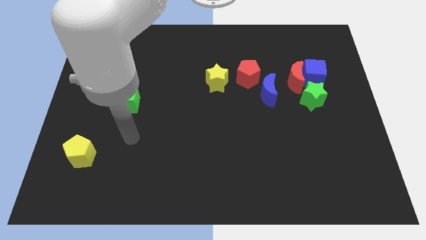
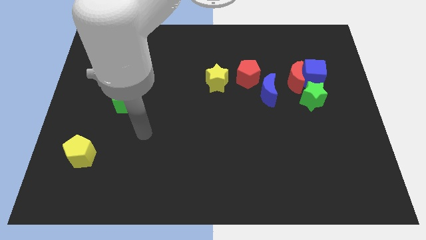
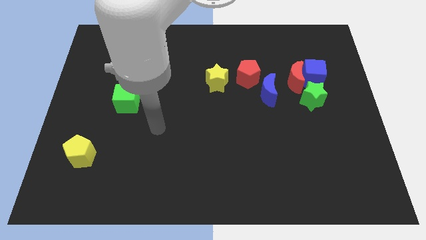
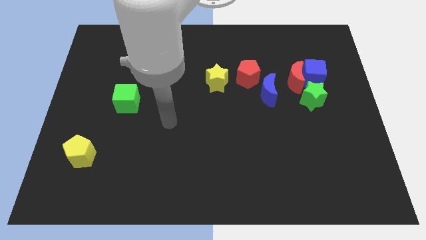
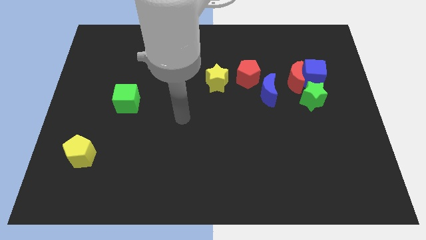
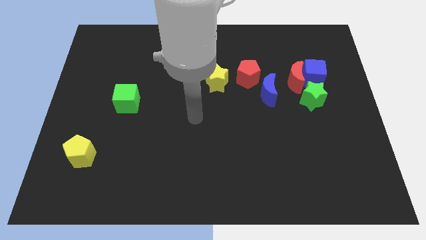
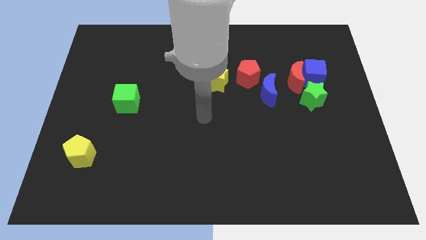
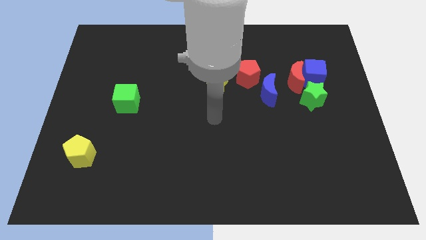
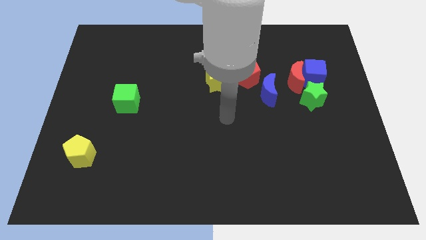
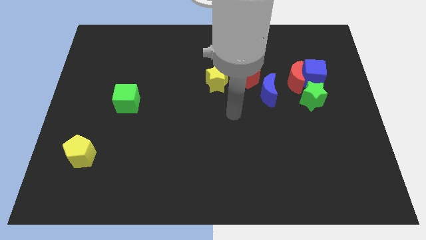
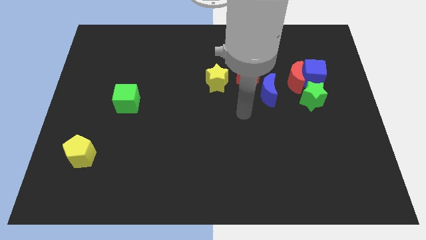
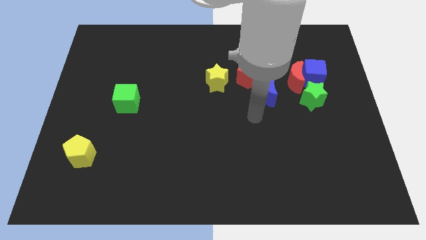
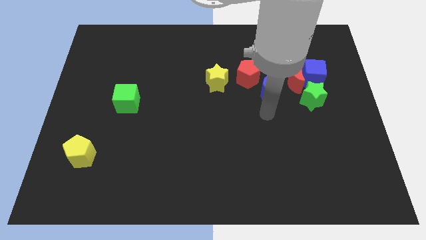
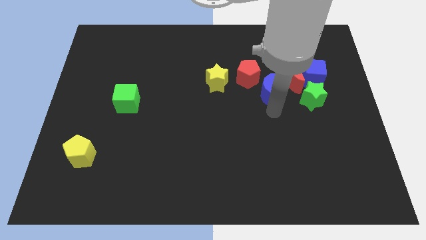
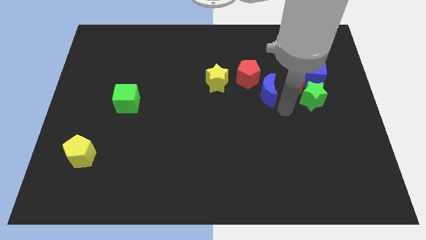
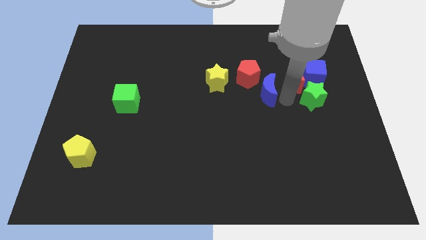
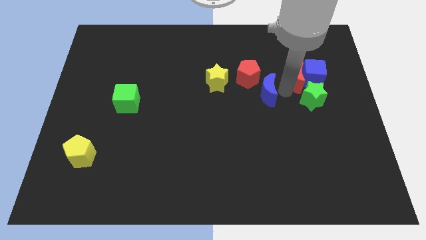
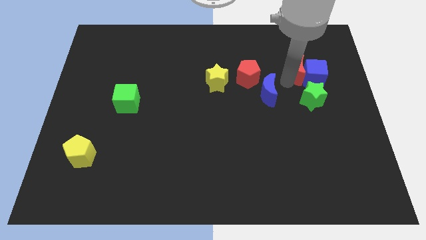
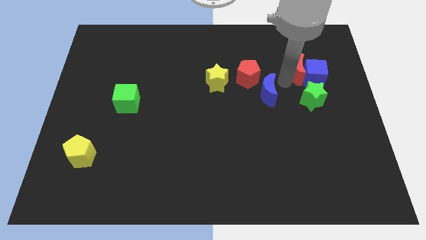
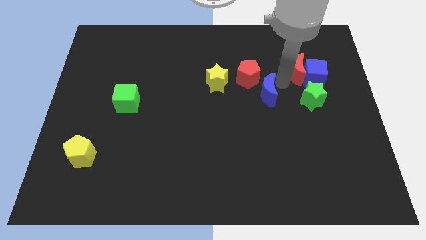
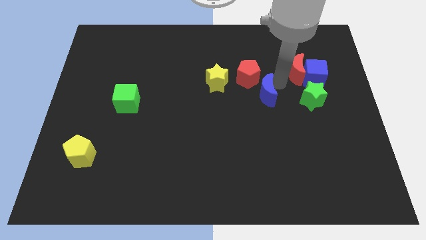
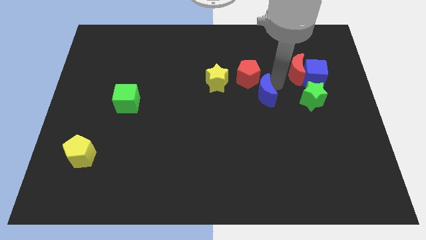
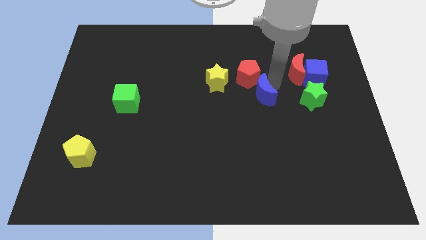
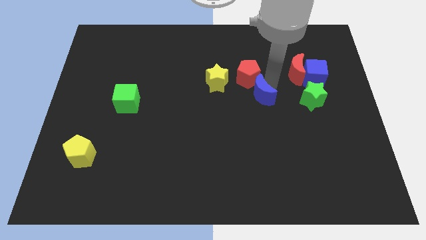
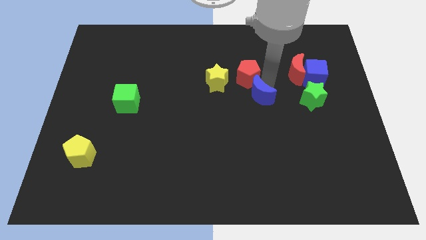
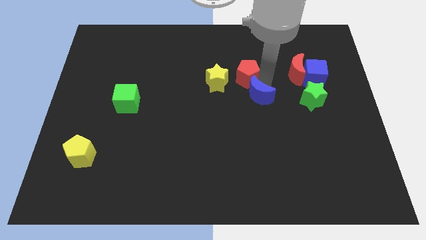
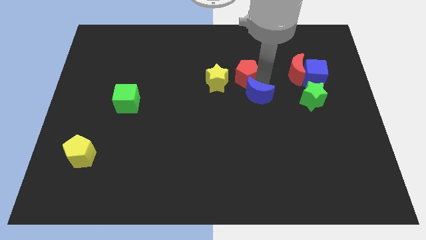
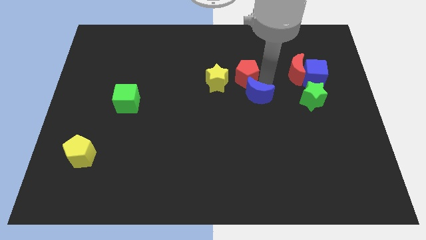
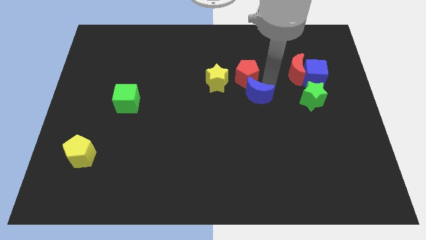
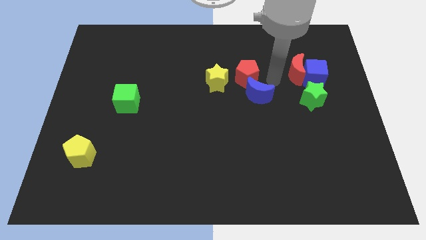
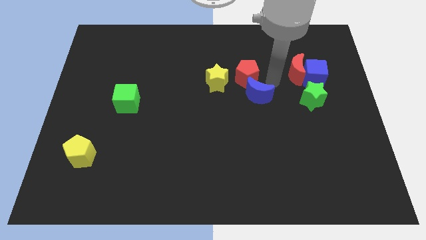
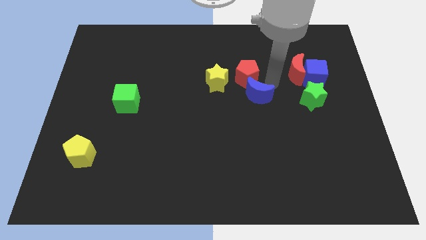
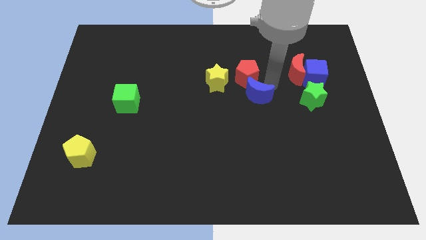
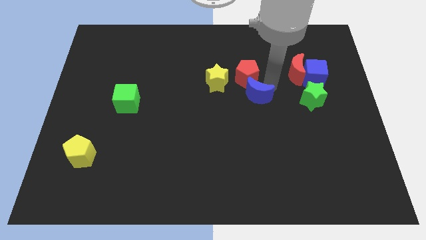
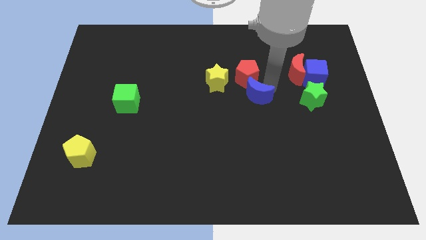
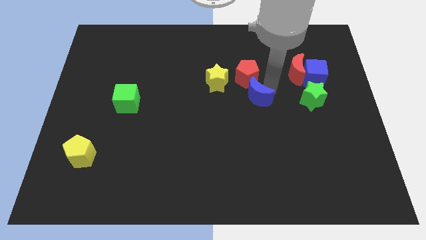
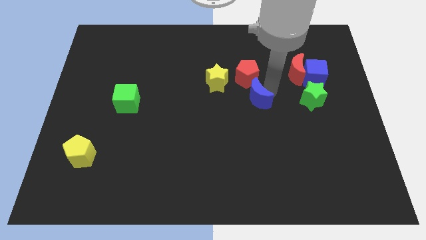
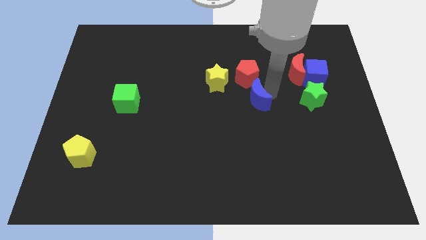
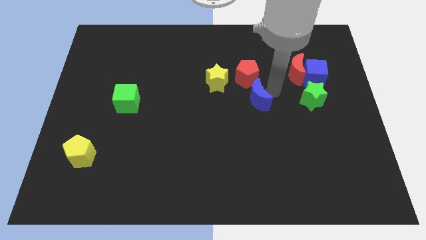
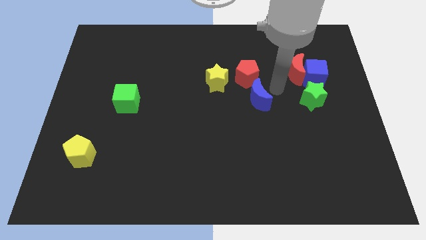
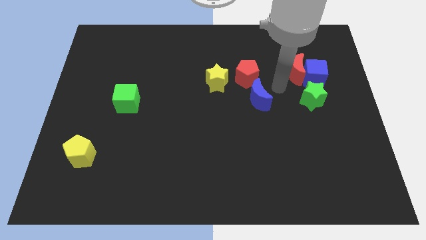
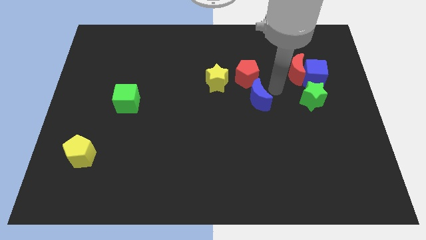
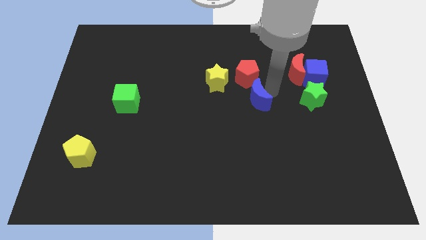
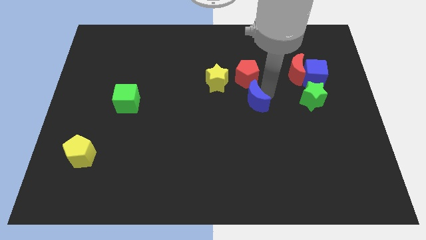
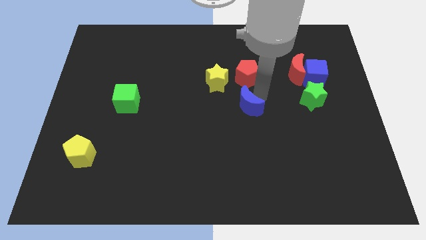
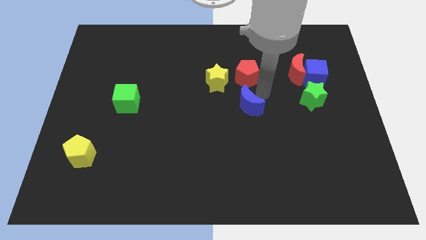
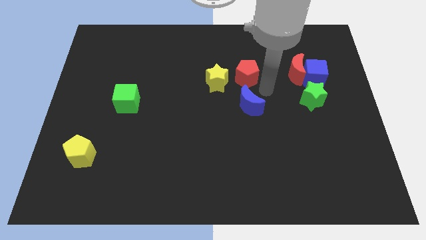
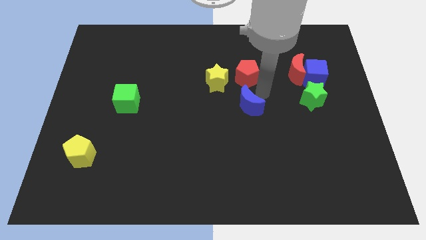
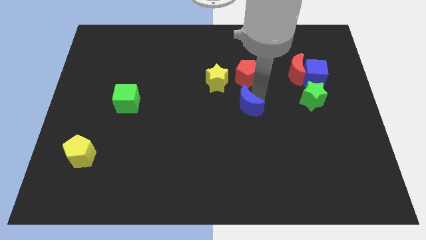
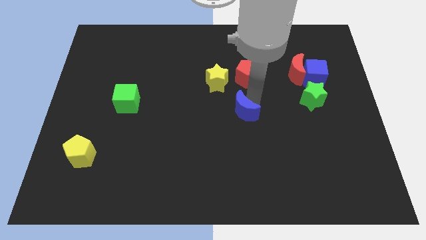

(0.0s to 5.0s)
slightly slide the blue moon downwards and then left

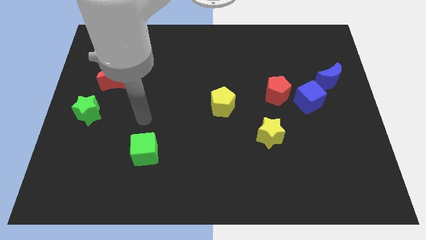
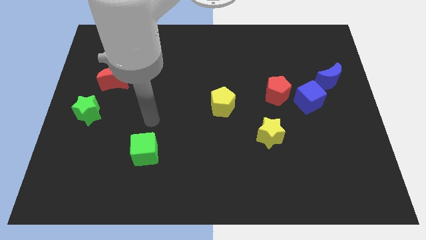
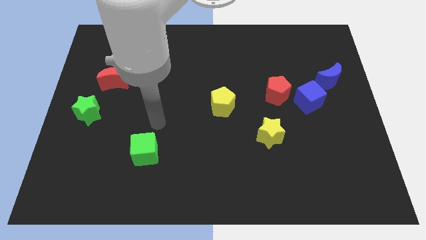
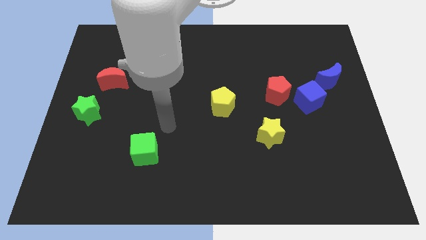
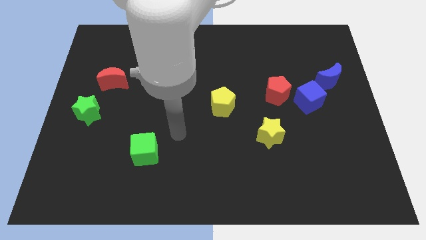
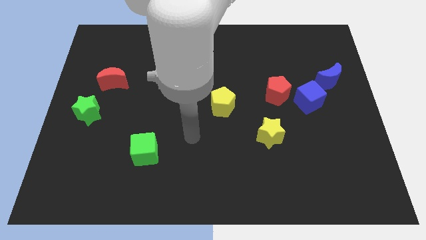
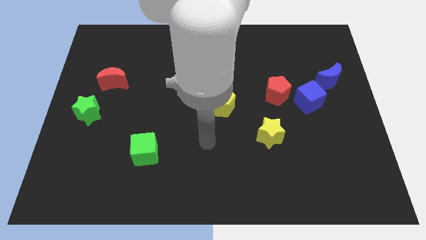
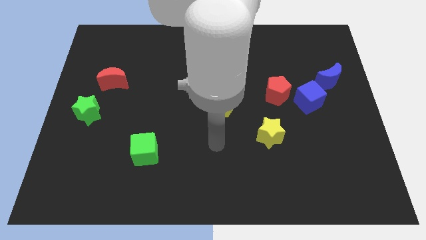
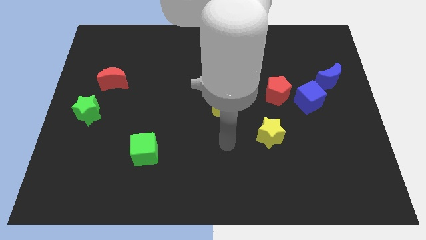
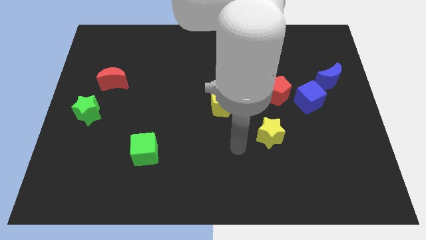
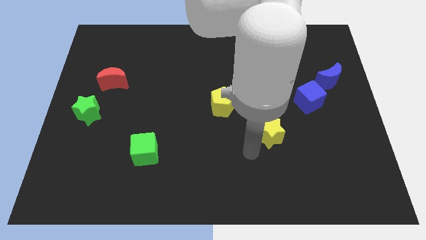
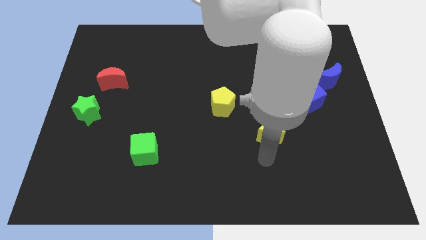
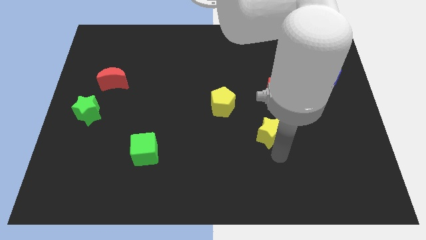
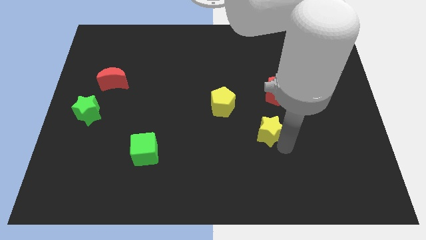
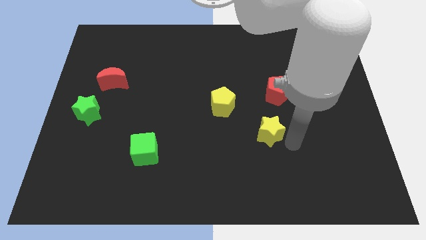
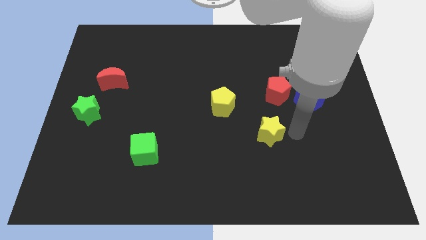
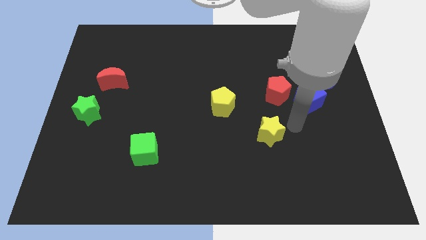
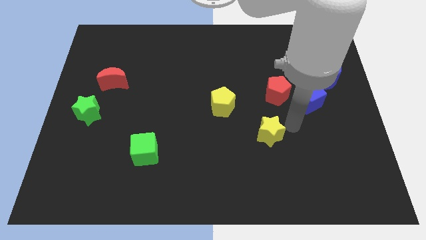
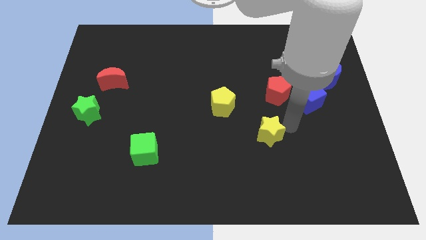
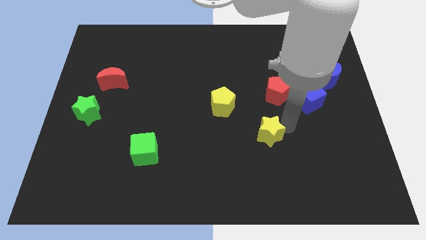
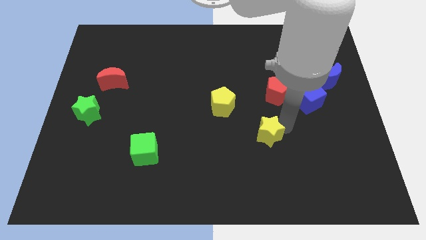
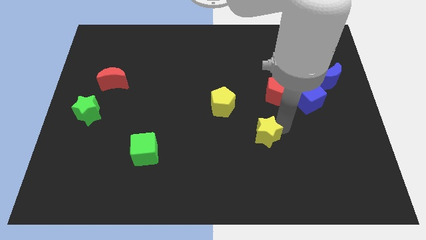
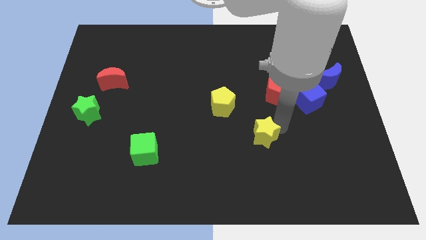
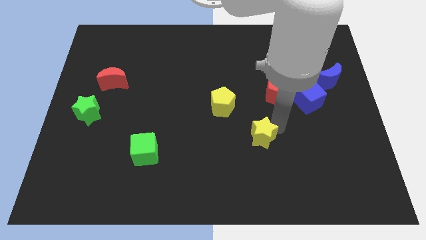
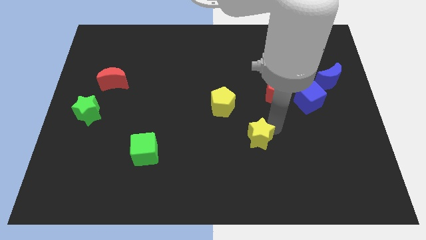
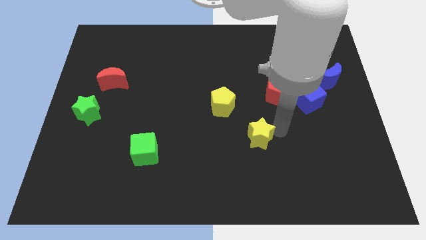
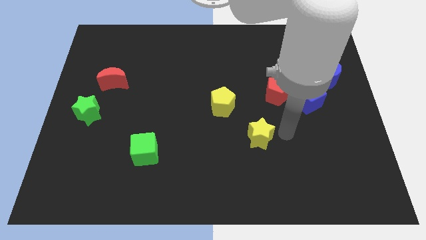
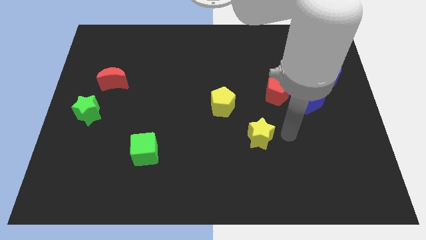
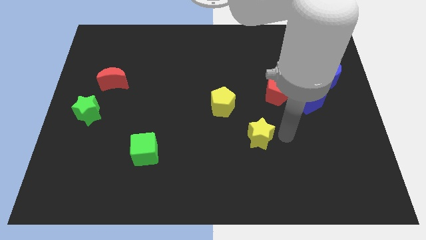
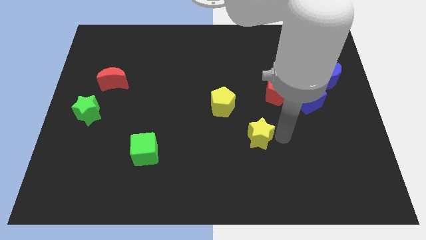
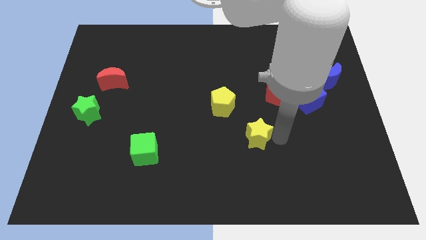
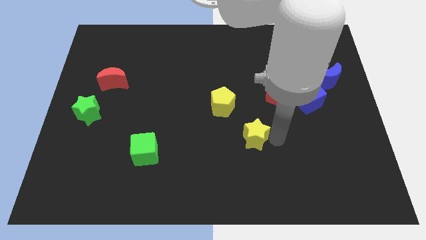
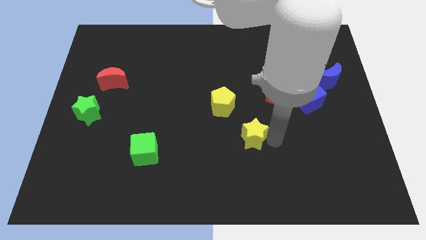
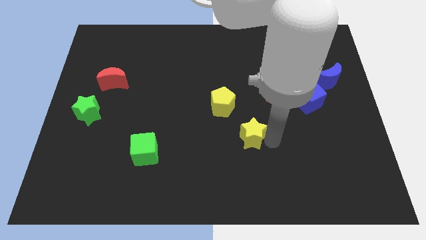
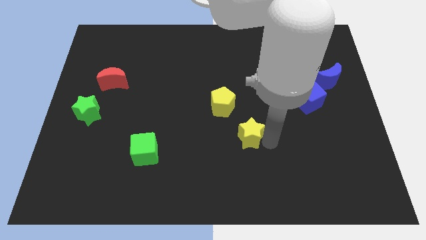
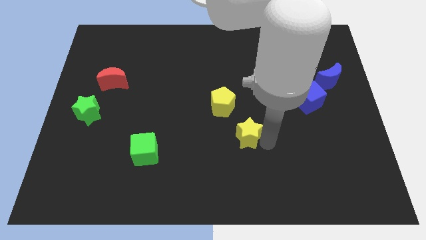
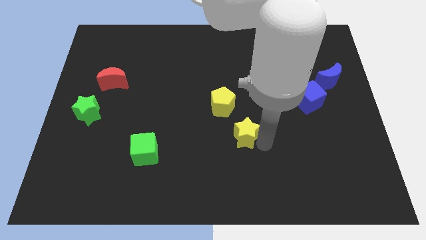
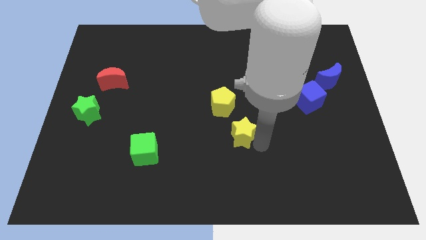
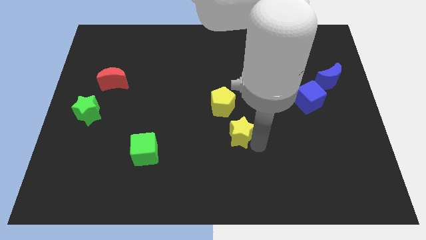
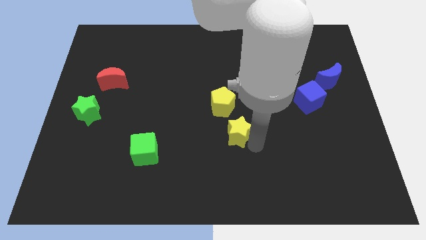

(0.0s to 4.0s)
move the yellow star slightly left
